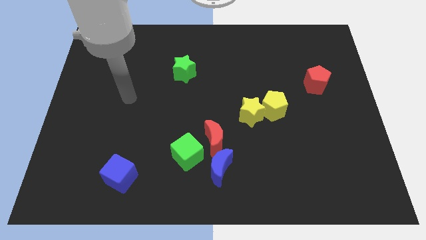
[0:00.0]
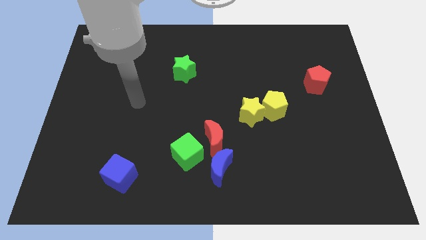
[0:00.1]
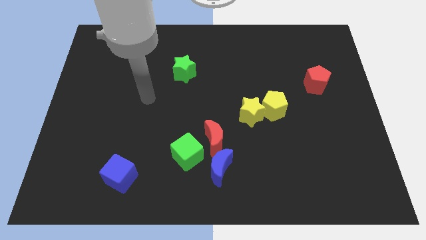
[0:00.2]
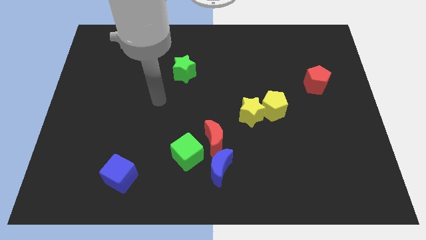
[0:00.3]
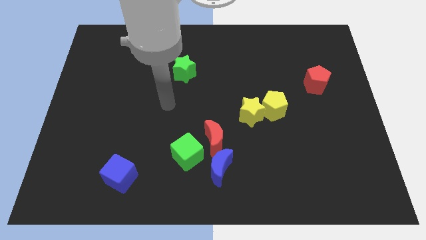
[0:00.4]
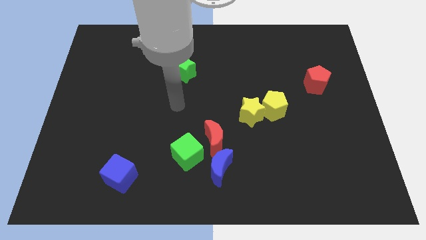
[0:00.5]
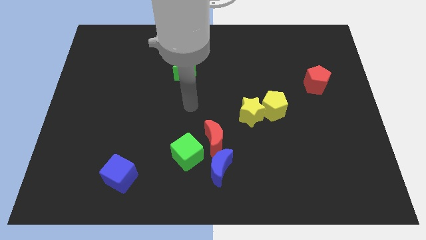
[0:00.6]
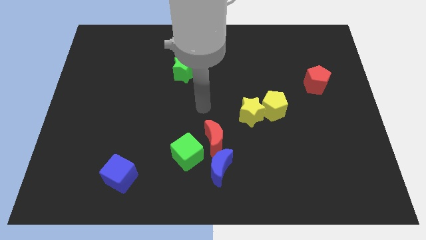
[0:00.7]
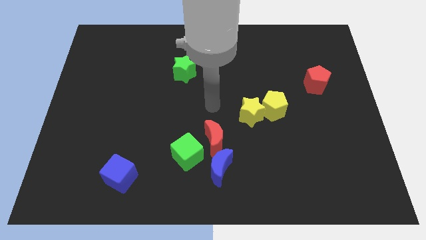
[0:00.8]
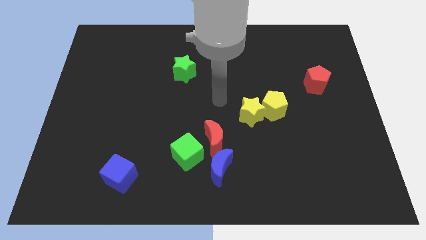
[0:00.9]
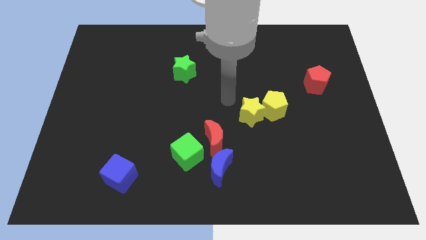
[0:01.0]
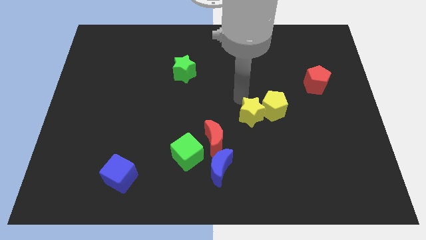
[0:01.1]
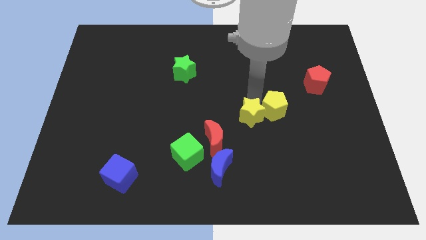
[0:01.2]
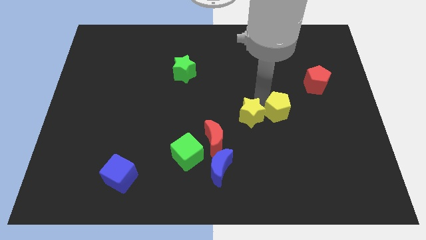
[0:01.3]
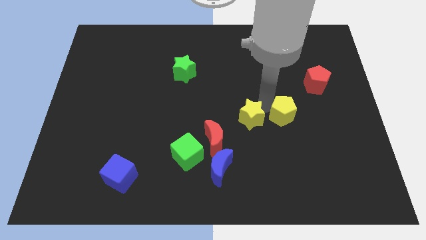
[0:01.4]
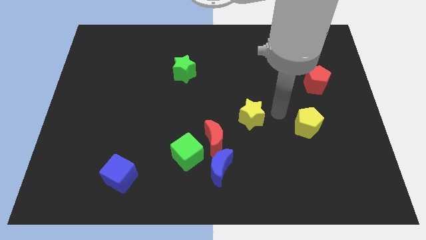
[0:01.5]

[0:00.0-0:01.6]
pull the yellow star apart from the yellow pentagon

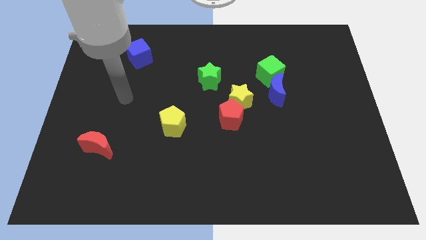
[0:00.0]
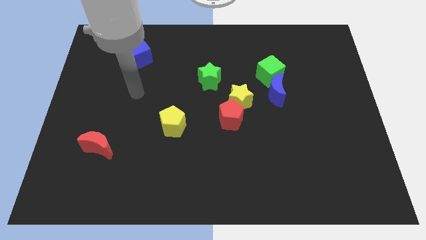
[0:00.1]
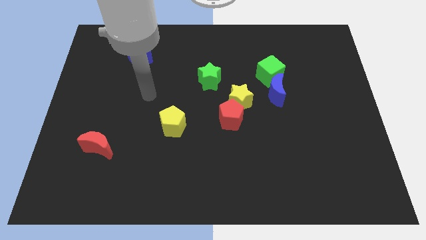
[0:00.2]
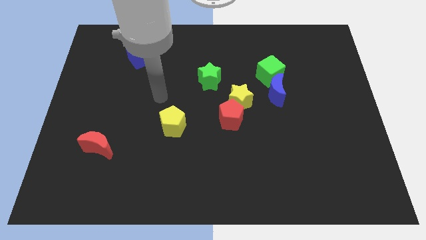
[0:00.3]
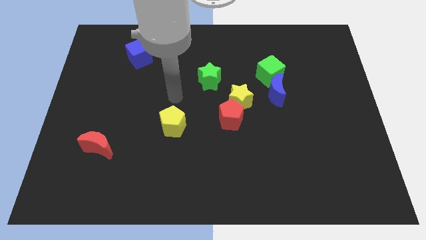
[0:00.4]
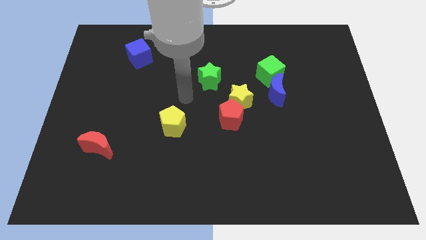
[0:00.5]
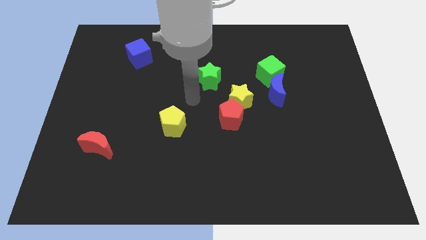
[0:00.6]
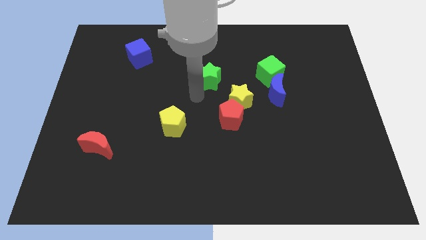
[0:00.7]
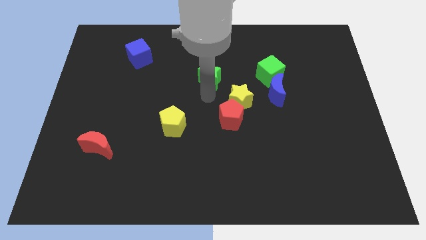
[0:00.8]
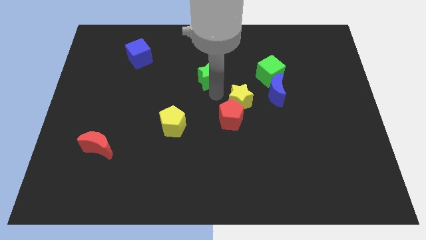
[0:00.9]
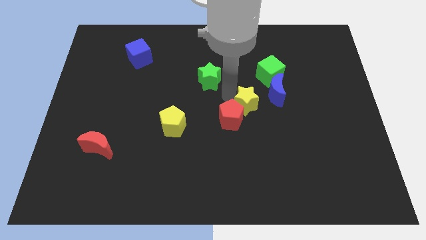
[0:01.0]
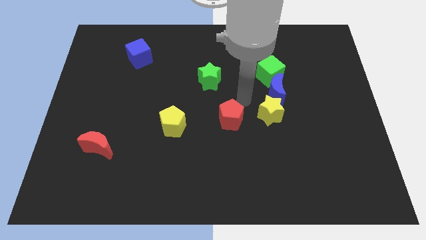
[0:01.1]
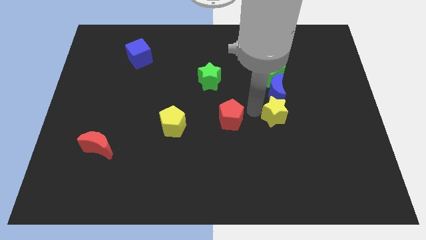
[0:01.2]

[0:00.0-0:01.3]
pull the red pentagon apart from the yellow star

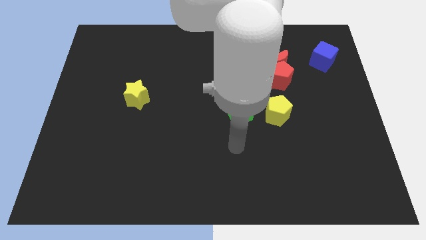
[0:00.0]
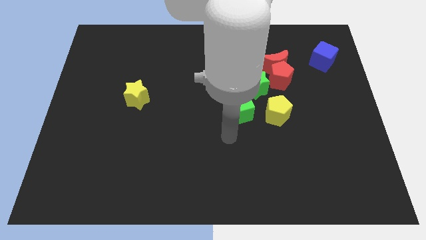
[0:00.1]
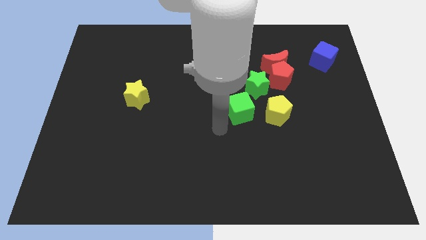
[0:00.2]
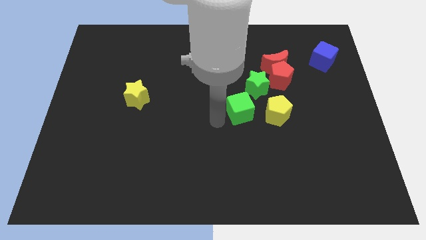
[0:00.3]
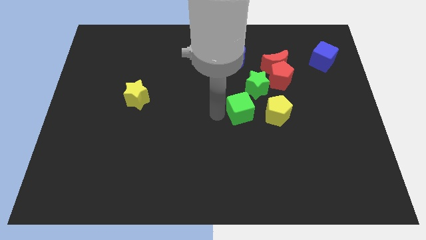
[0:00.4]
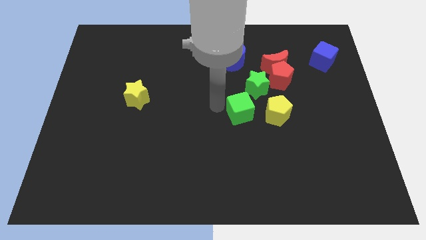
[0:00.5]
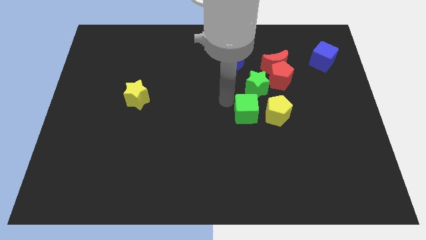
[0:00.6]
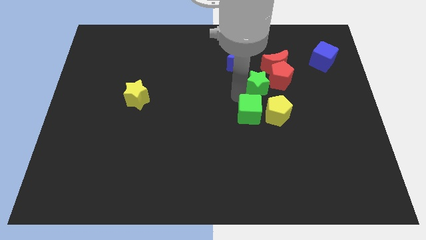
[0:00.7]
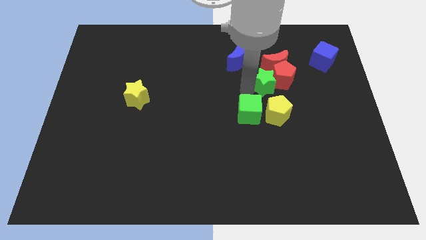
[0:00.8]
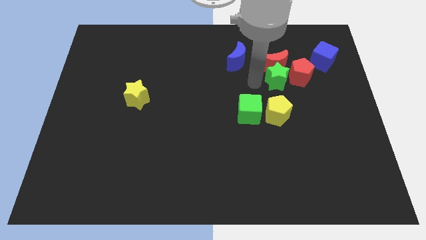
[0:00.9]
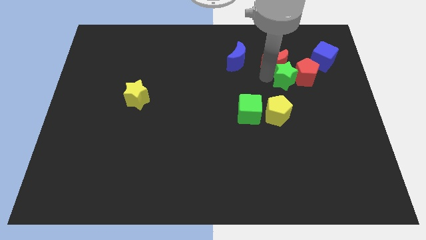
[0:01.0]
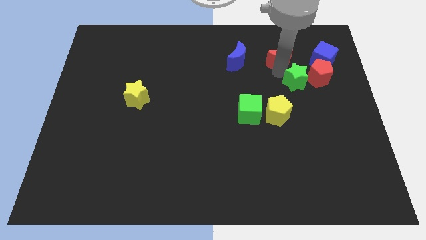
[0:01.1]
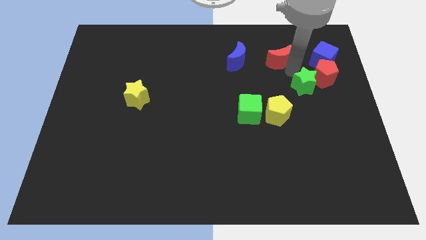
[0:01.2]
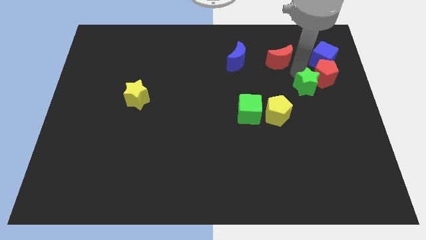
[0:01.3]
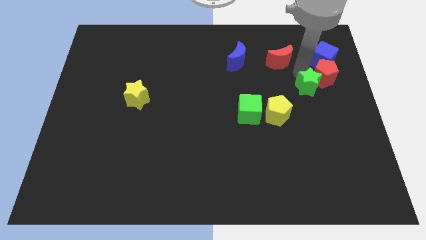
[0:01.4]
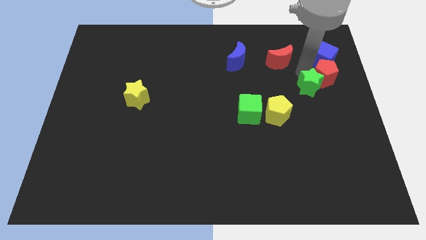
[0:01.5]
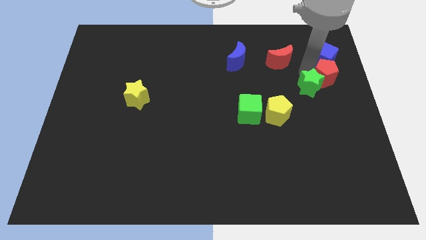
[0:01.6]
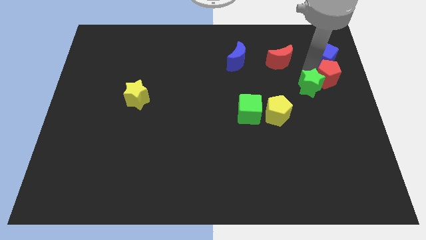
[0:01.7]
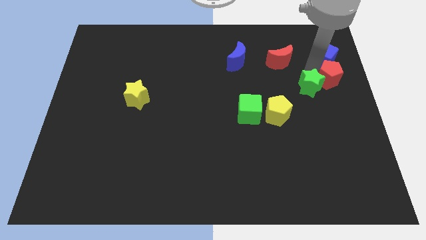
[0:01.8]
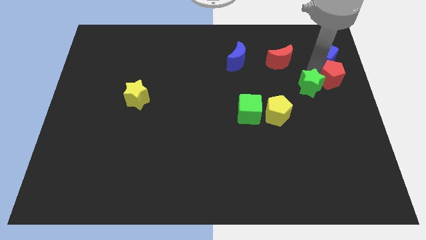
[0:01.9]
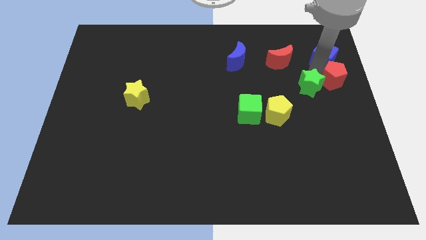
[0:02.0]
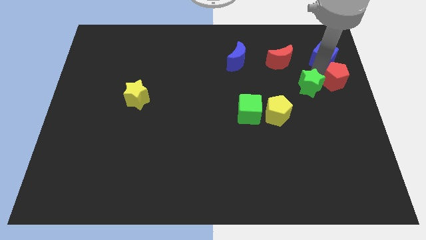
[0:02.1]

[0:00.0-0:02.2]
separate the red pentagon from the red moon and green star

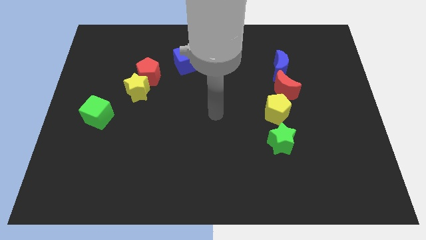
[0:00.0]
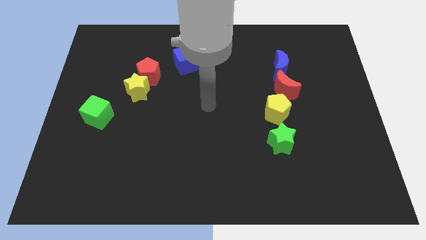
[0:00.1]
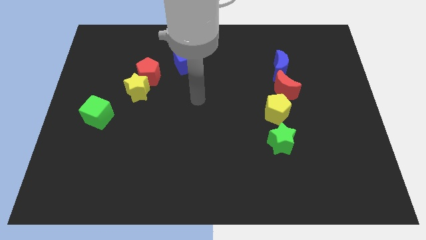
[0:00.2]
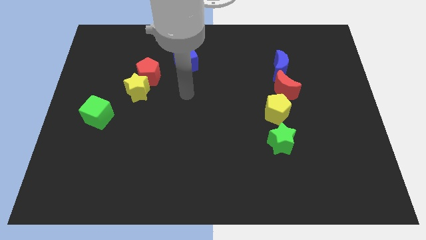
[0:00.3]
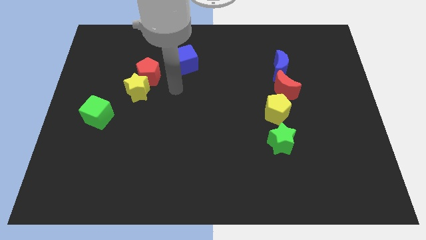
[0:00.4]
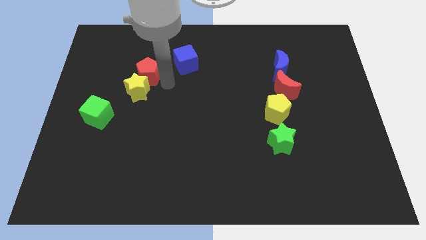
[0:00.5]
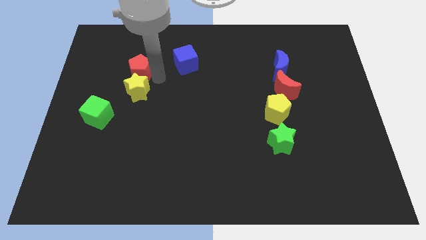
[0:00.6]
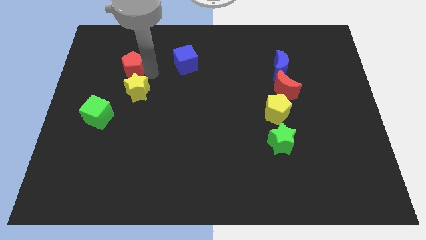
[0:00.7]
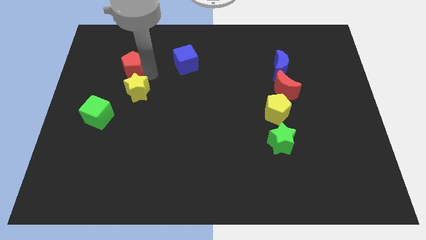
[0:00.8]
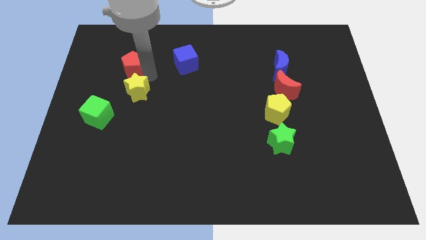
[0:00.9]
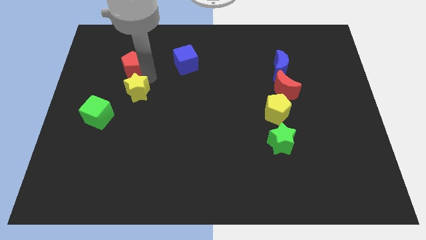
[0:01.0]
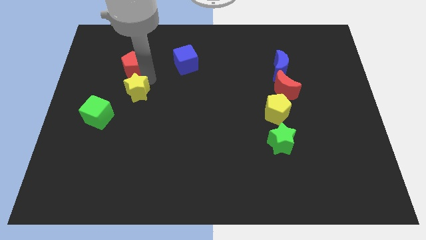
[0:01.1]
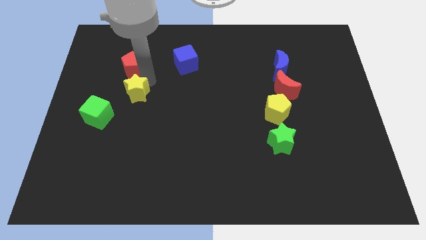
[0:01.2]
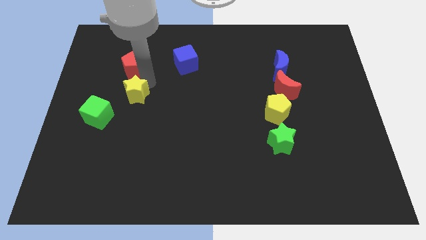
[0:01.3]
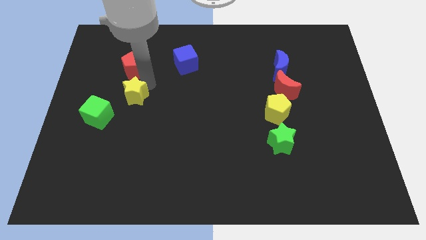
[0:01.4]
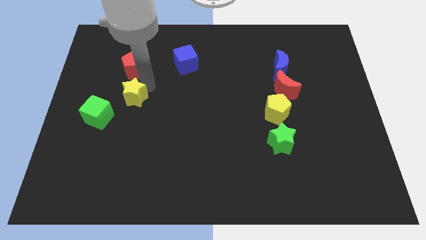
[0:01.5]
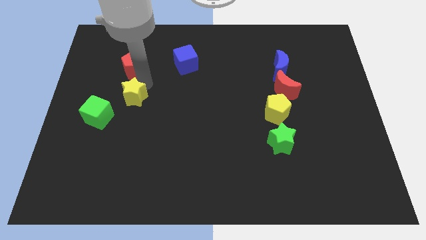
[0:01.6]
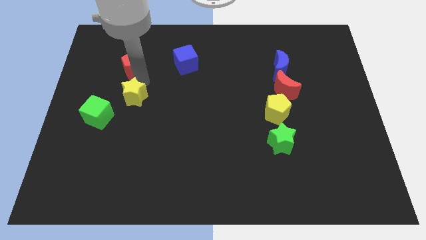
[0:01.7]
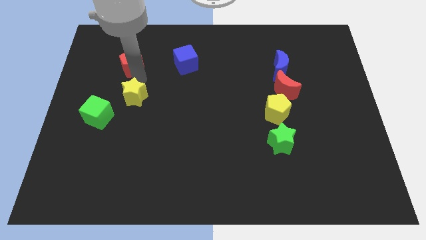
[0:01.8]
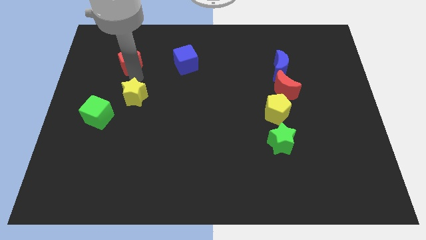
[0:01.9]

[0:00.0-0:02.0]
move the yellow star away from the red pentagon

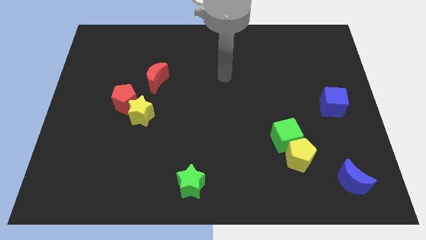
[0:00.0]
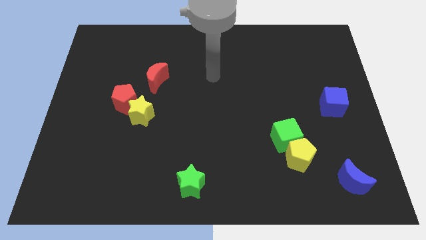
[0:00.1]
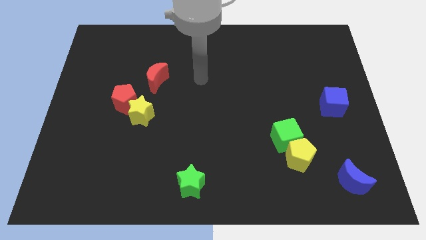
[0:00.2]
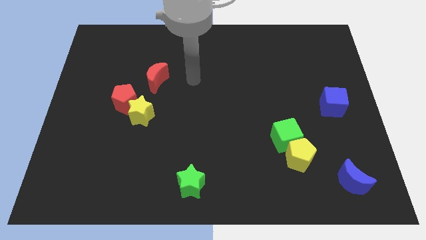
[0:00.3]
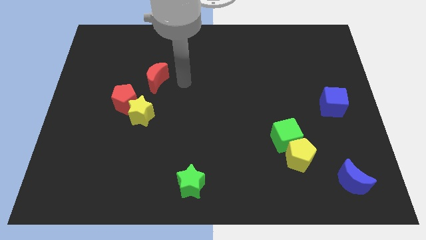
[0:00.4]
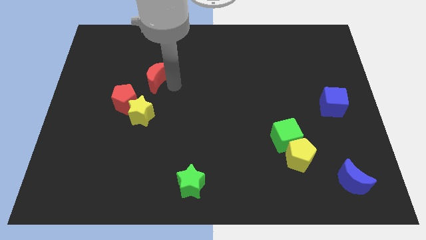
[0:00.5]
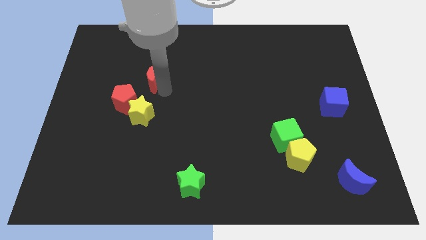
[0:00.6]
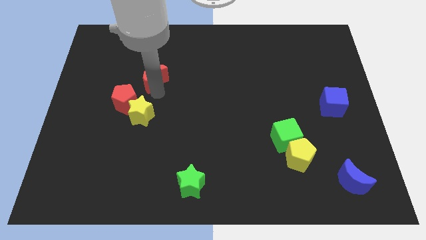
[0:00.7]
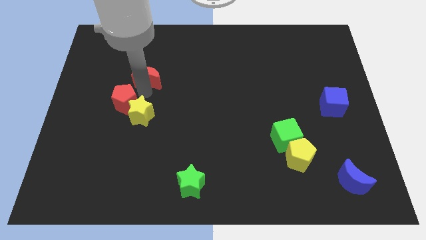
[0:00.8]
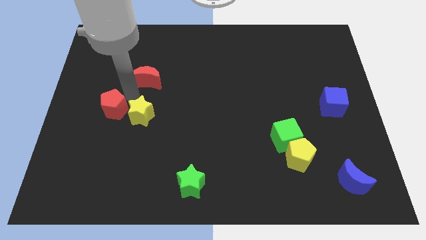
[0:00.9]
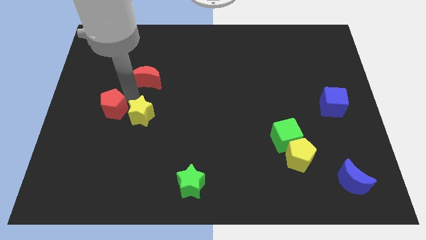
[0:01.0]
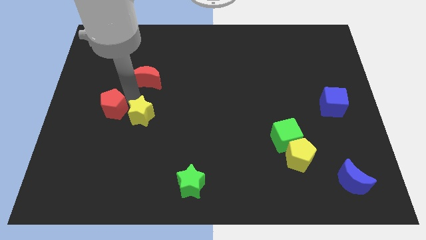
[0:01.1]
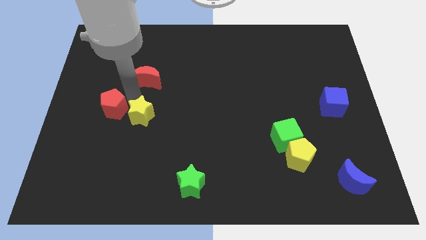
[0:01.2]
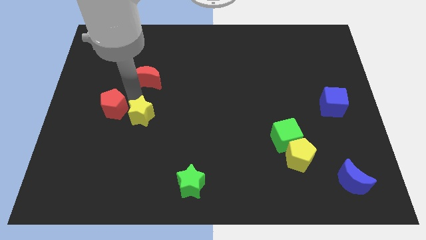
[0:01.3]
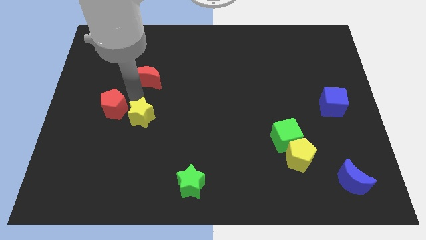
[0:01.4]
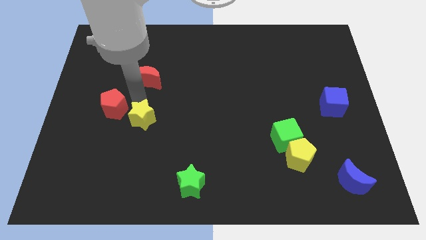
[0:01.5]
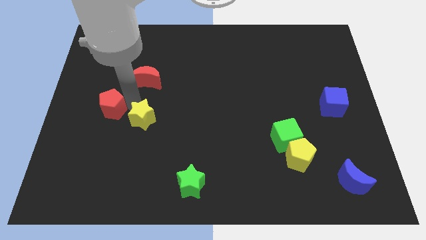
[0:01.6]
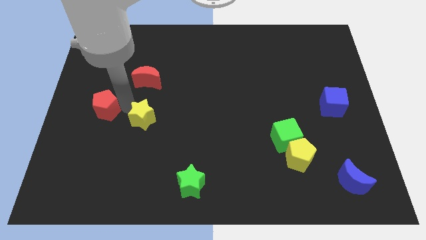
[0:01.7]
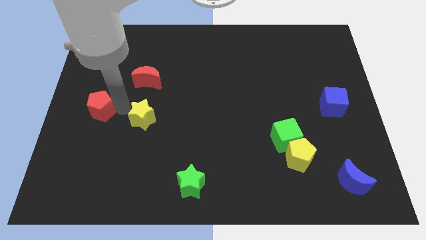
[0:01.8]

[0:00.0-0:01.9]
separate the yellow star from the red pentagon

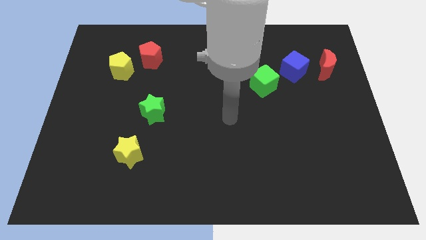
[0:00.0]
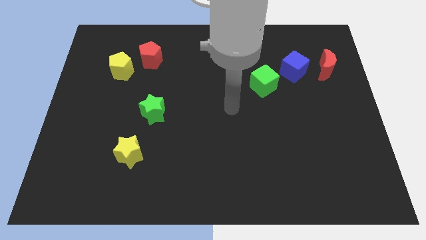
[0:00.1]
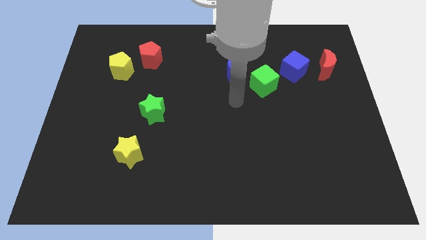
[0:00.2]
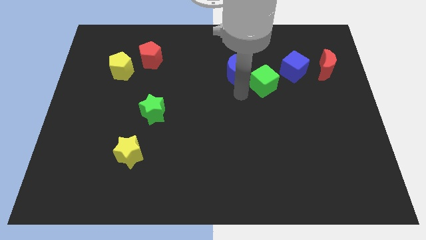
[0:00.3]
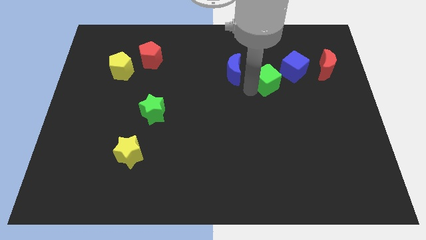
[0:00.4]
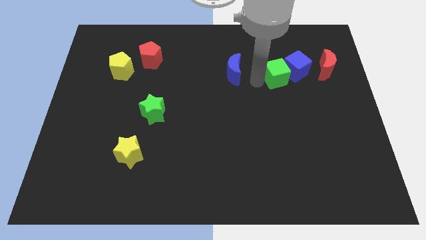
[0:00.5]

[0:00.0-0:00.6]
move the blue moon away from the green cube
